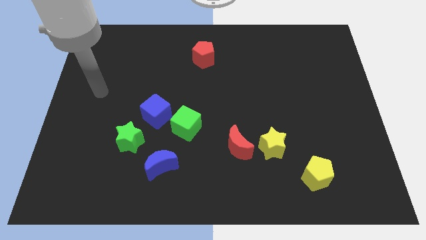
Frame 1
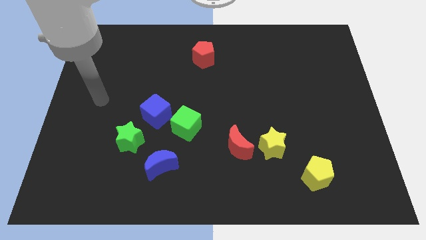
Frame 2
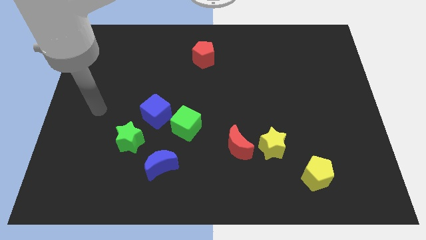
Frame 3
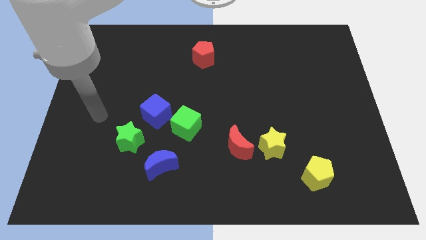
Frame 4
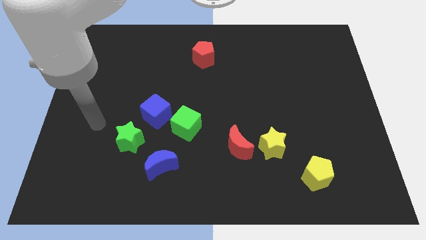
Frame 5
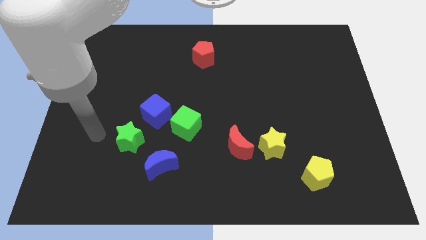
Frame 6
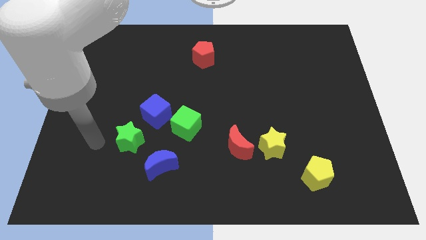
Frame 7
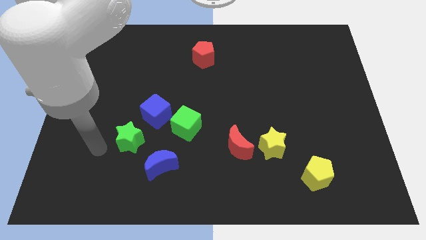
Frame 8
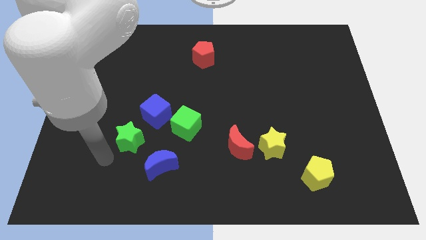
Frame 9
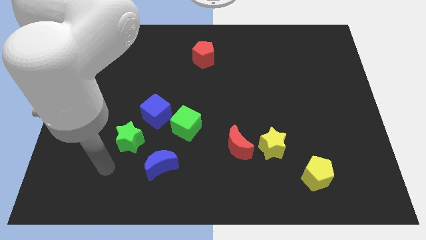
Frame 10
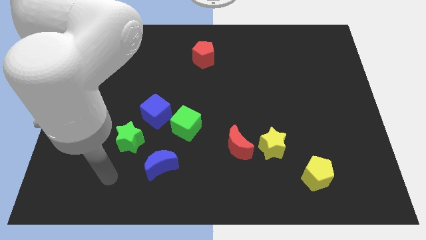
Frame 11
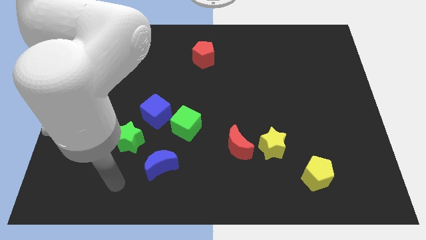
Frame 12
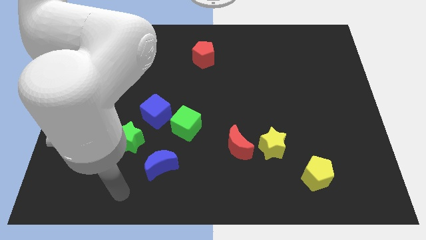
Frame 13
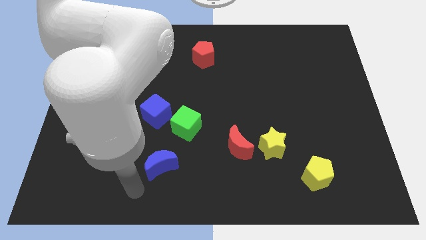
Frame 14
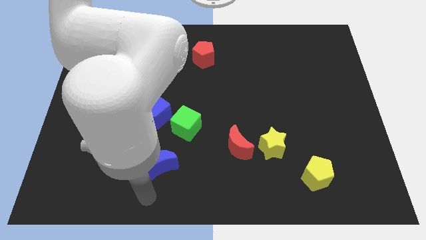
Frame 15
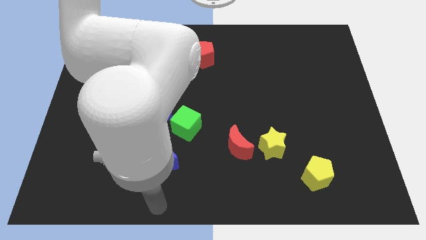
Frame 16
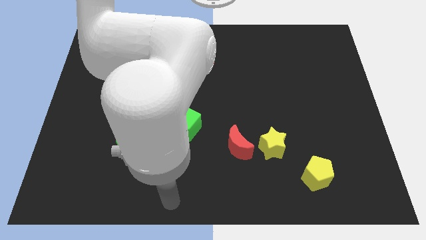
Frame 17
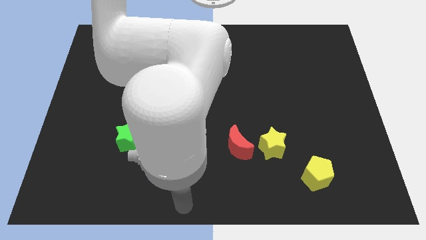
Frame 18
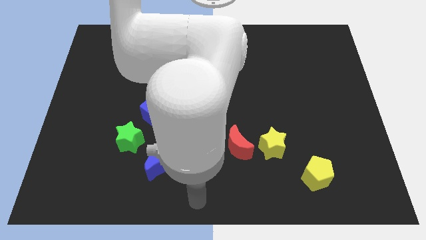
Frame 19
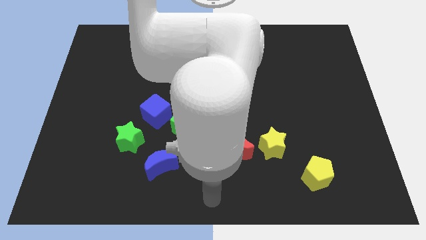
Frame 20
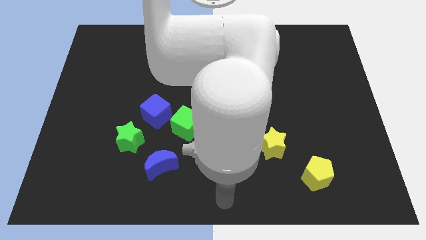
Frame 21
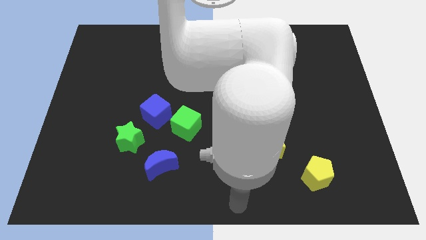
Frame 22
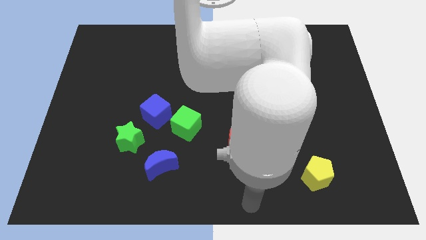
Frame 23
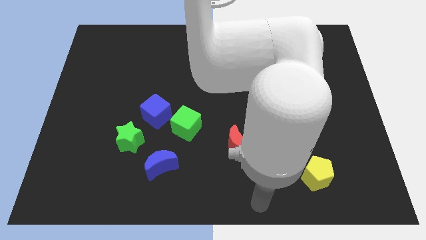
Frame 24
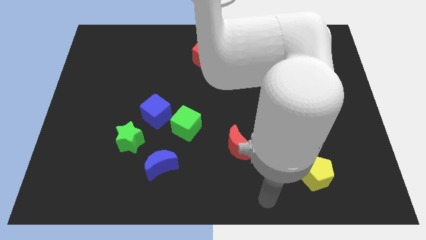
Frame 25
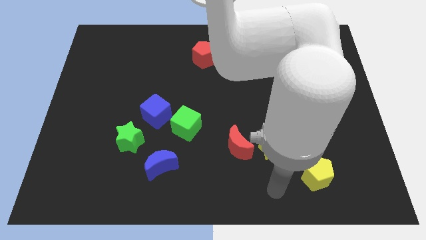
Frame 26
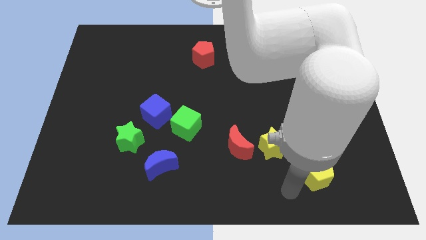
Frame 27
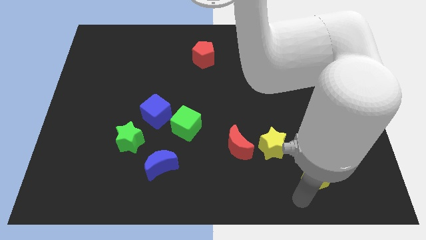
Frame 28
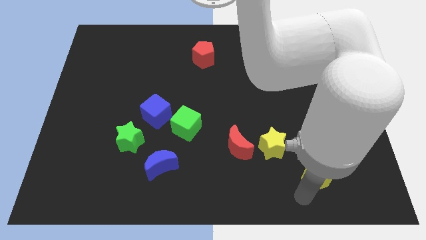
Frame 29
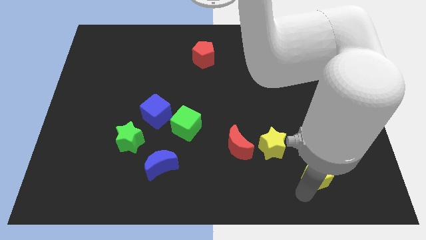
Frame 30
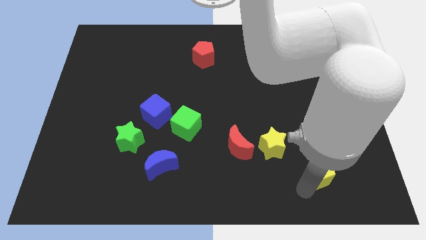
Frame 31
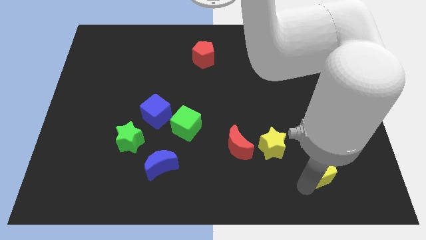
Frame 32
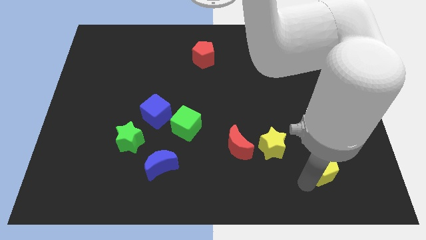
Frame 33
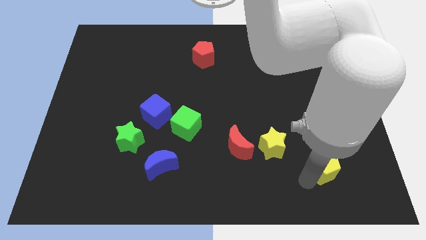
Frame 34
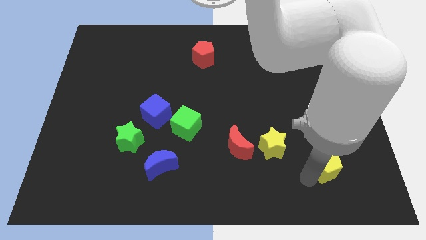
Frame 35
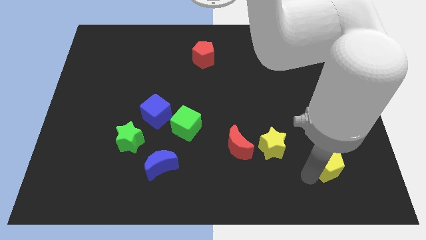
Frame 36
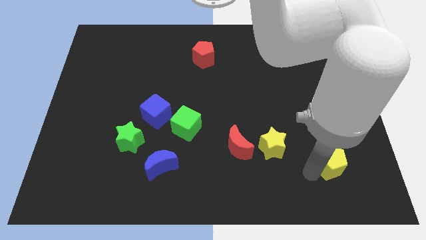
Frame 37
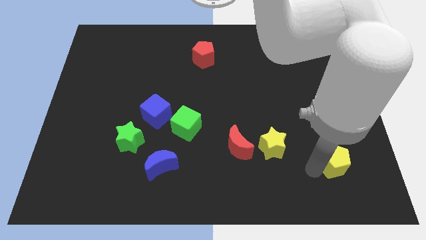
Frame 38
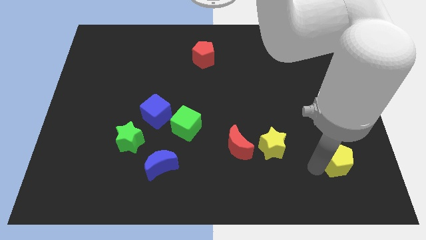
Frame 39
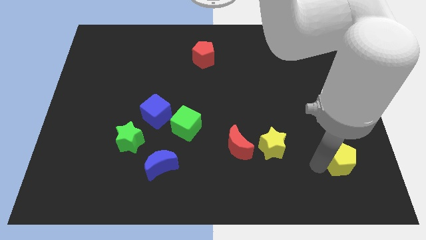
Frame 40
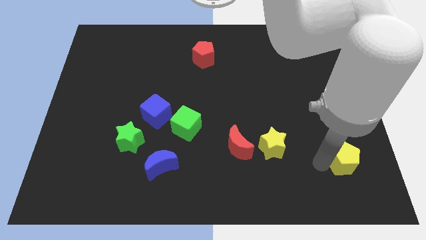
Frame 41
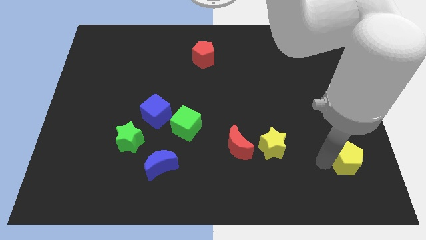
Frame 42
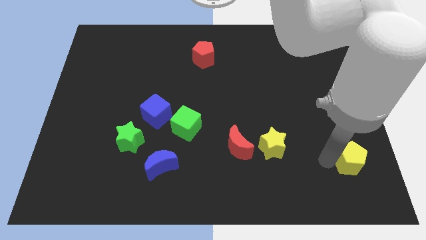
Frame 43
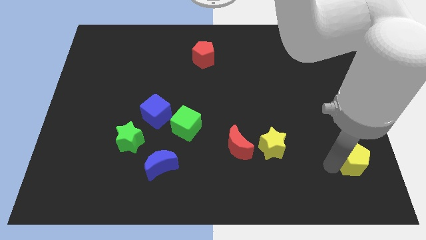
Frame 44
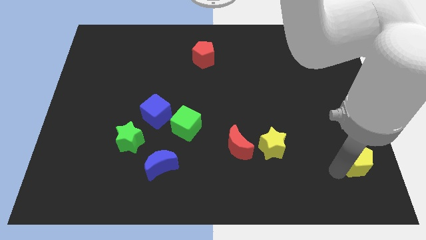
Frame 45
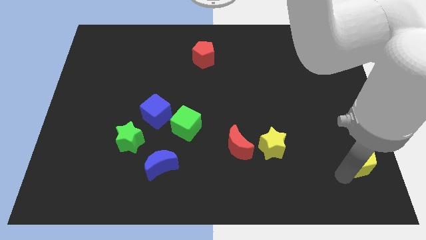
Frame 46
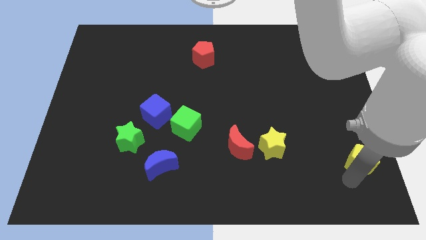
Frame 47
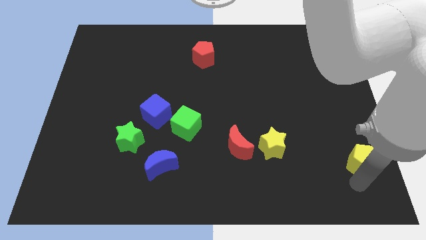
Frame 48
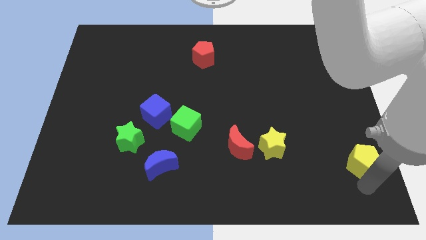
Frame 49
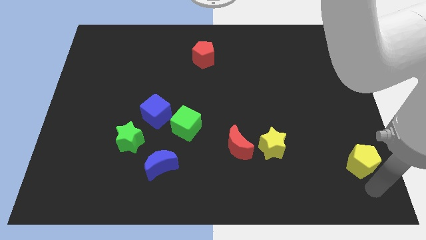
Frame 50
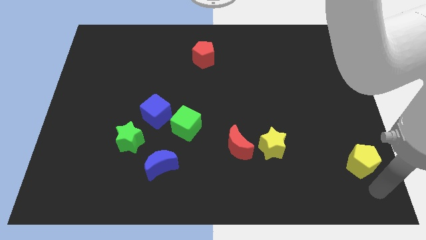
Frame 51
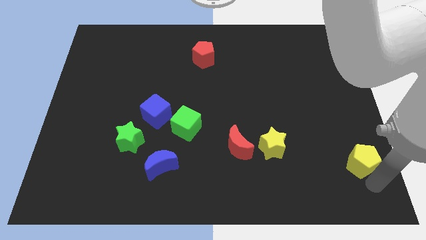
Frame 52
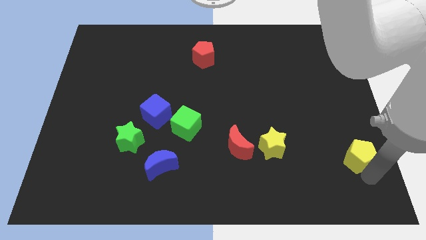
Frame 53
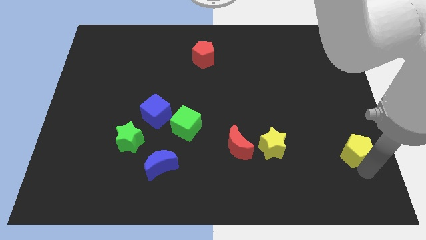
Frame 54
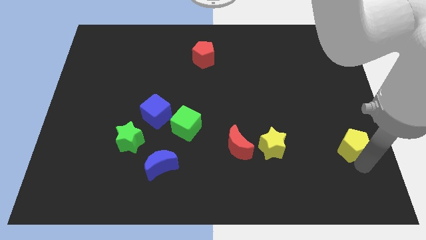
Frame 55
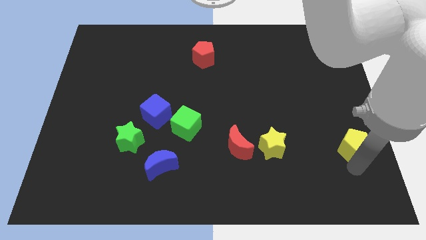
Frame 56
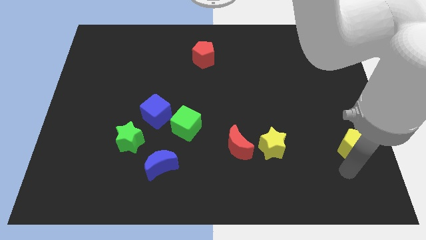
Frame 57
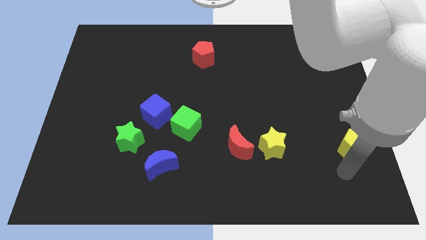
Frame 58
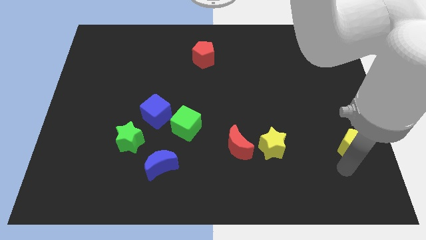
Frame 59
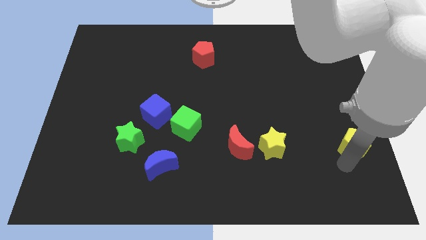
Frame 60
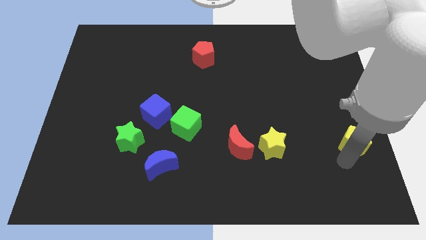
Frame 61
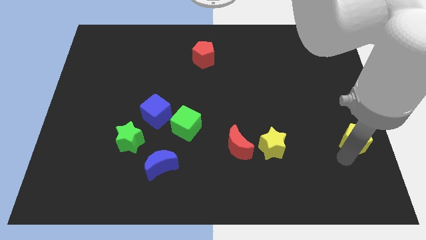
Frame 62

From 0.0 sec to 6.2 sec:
slide the yellow pentagon to the center right

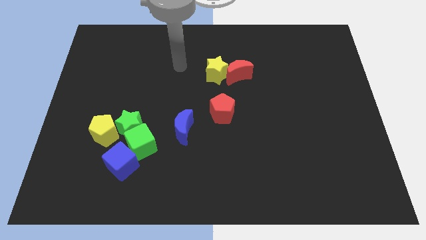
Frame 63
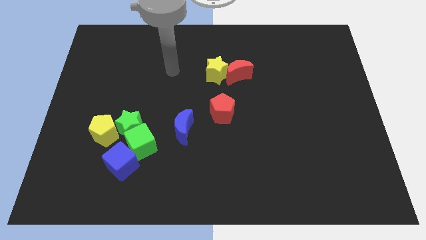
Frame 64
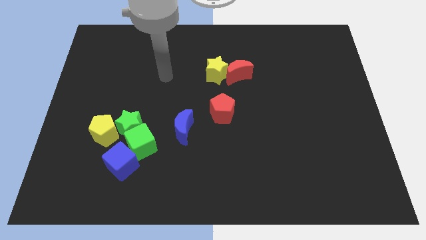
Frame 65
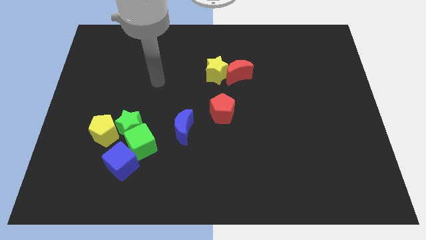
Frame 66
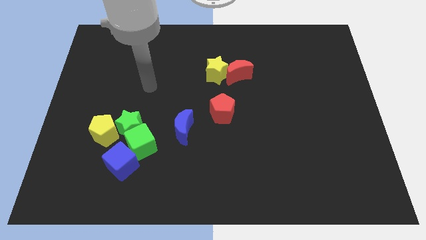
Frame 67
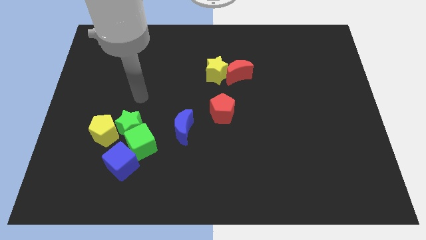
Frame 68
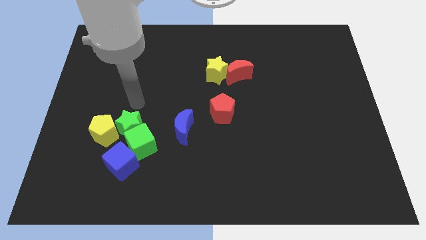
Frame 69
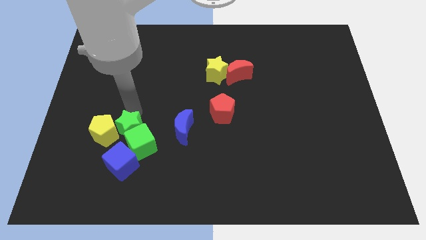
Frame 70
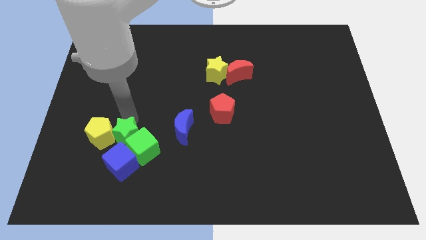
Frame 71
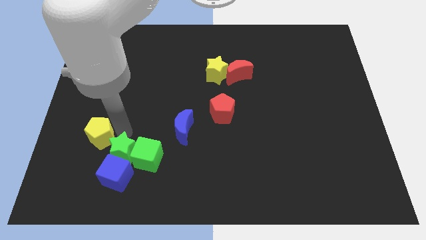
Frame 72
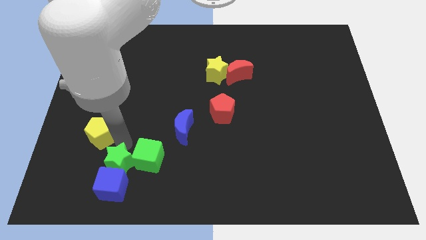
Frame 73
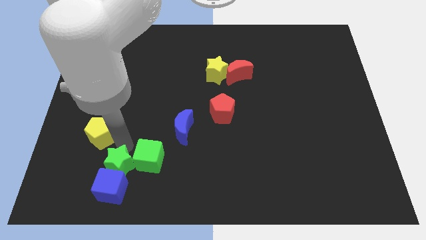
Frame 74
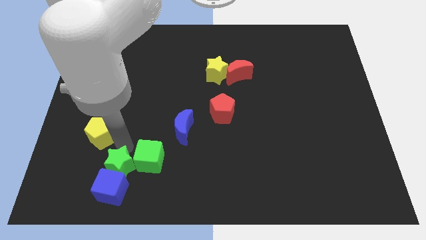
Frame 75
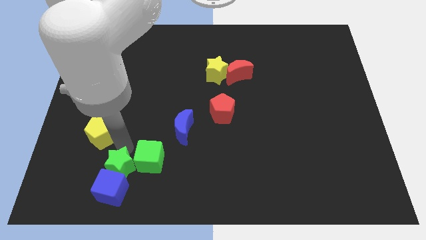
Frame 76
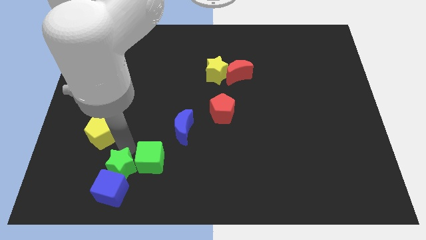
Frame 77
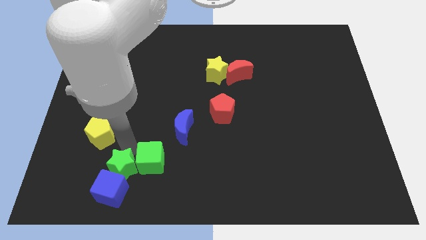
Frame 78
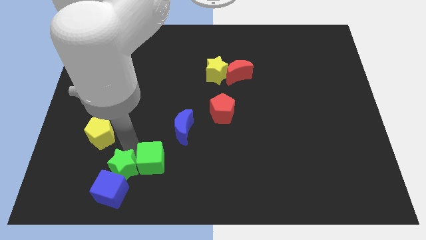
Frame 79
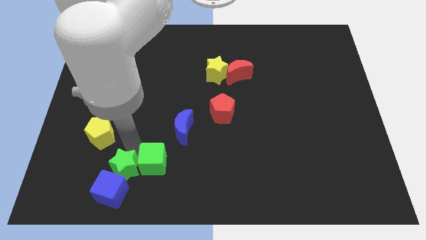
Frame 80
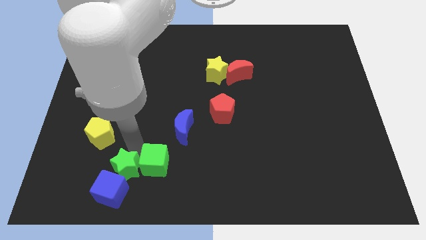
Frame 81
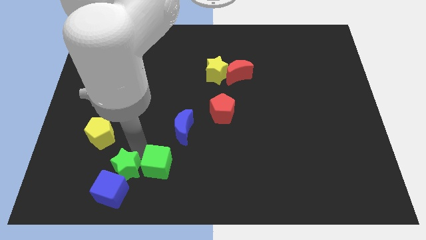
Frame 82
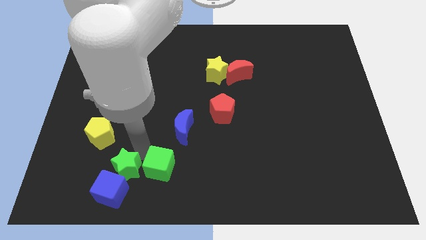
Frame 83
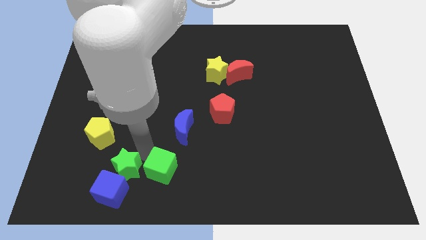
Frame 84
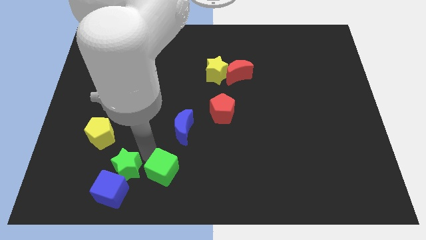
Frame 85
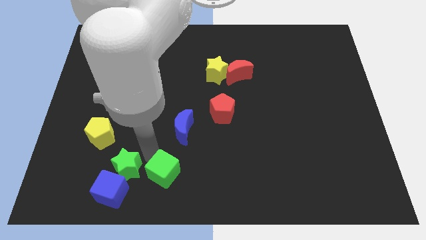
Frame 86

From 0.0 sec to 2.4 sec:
slide the green cube to the bottom

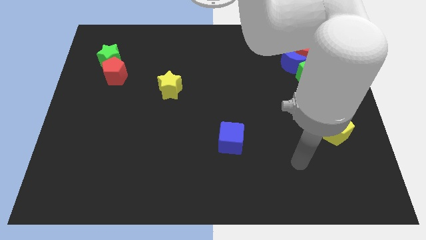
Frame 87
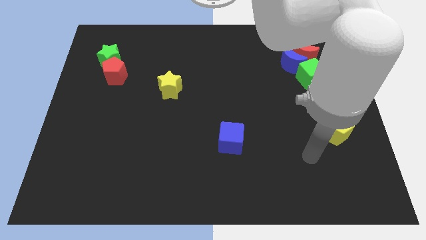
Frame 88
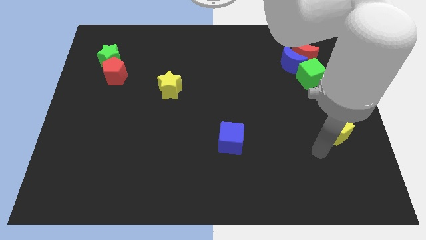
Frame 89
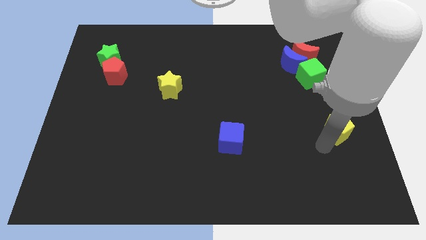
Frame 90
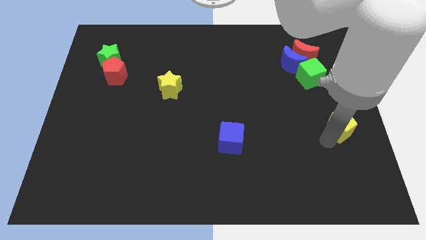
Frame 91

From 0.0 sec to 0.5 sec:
put the yellow pentagon to the center right
